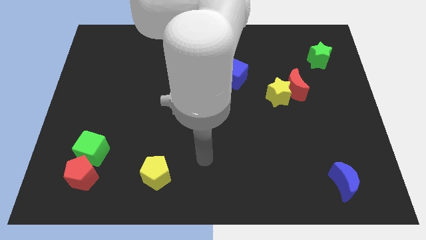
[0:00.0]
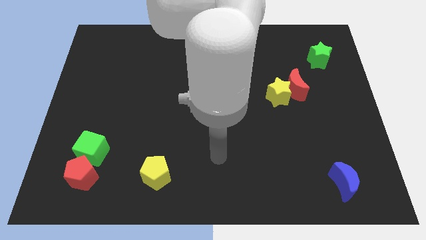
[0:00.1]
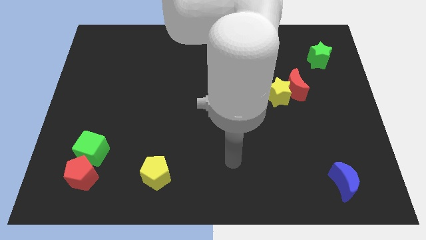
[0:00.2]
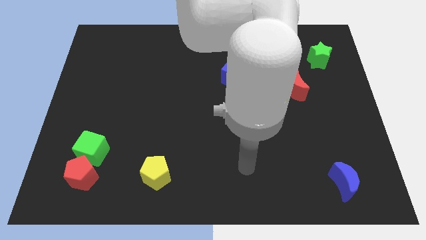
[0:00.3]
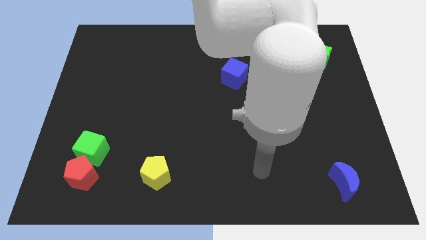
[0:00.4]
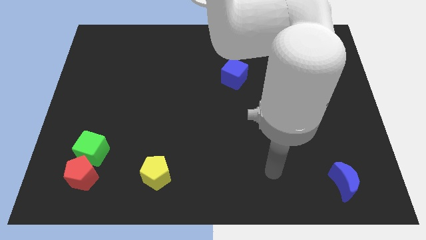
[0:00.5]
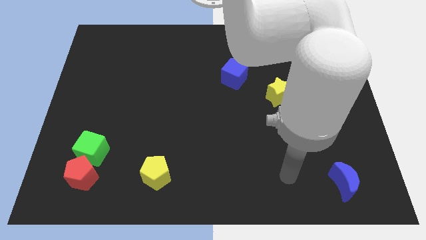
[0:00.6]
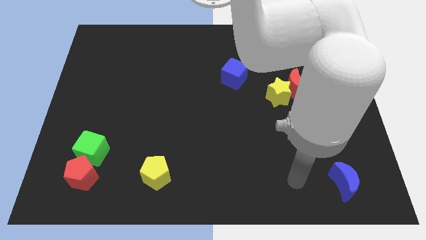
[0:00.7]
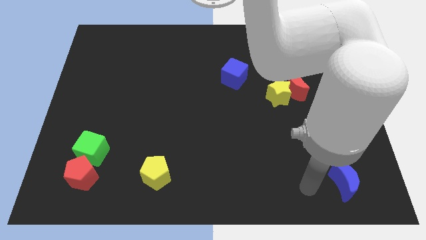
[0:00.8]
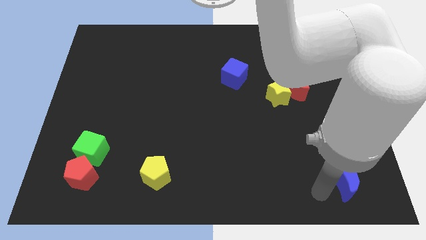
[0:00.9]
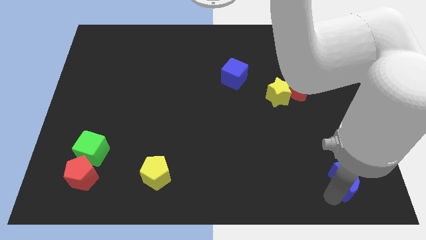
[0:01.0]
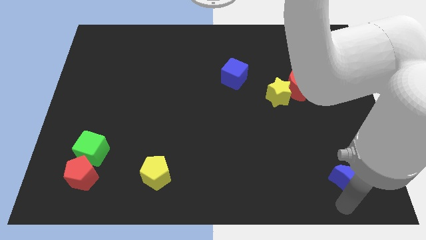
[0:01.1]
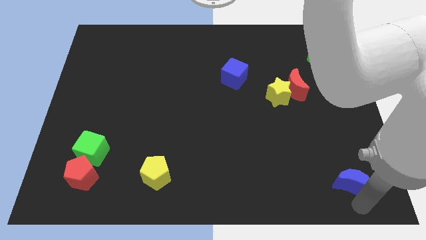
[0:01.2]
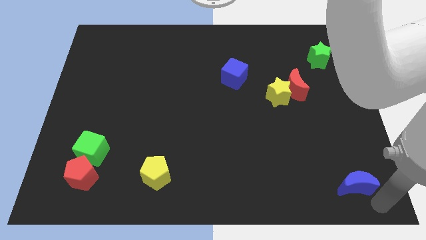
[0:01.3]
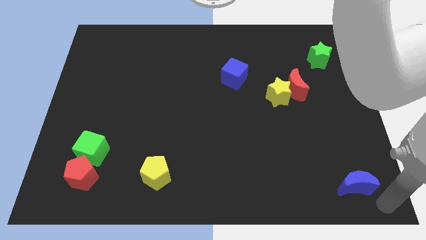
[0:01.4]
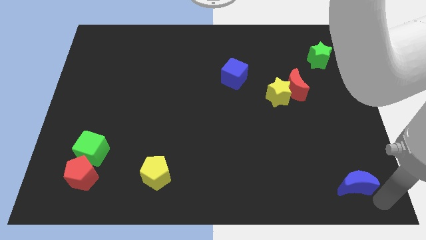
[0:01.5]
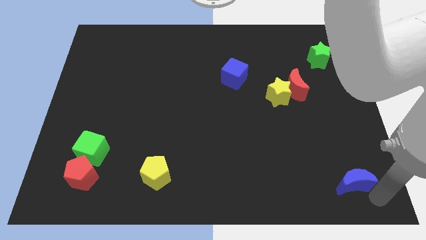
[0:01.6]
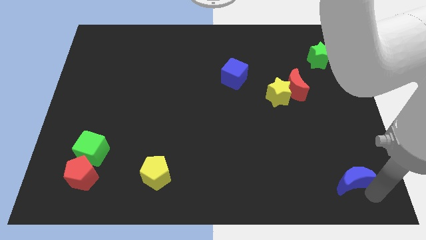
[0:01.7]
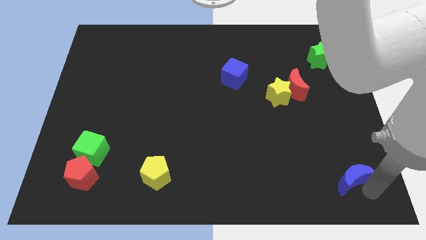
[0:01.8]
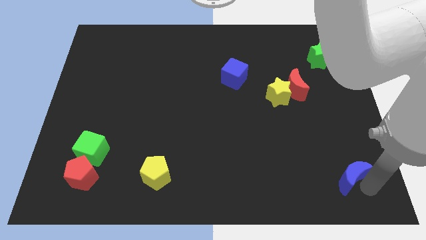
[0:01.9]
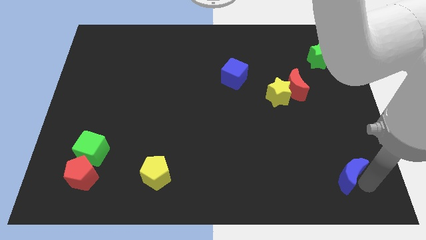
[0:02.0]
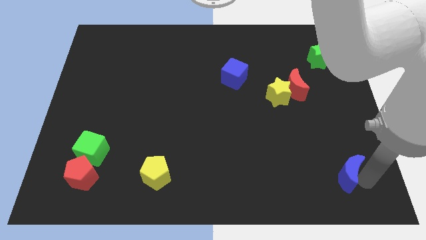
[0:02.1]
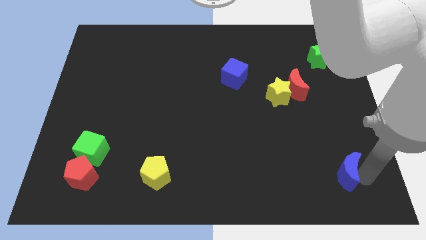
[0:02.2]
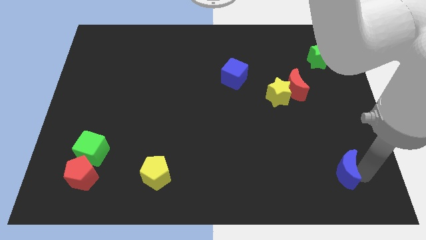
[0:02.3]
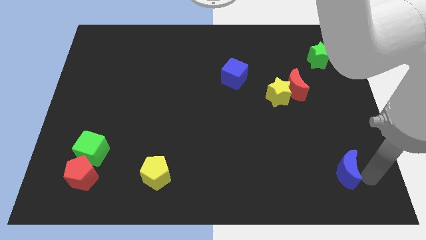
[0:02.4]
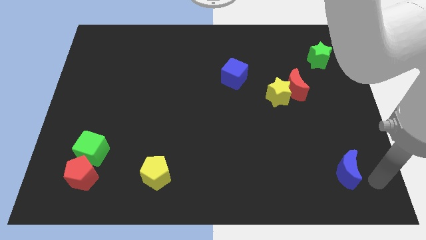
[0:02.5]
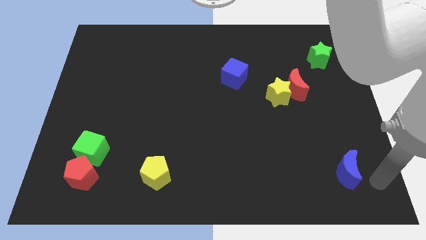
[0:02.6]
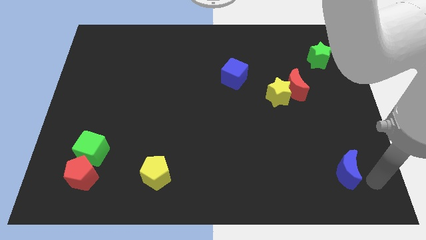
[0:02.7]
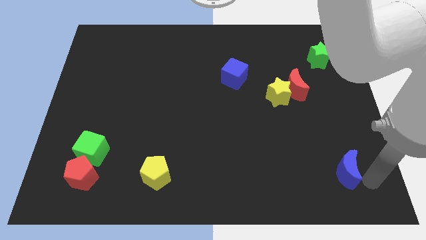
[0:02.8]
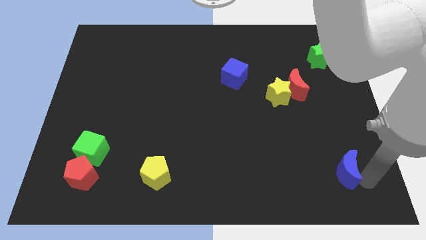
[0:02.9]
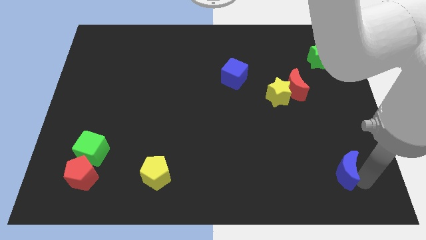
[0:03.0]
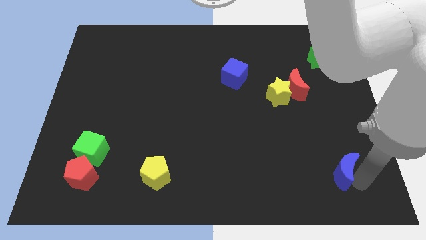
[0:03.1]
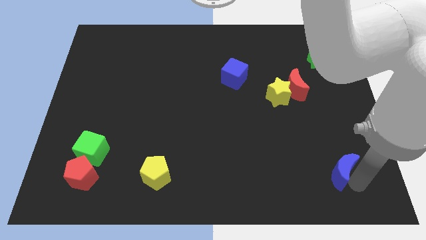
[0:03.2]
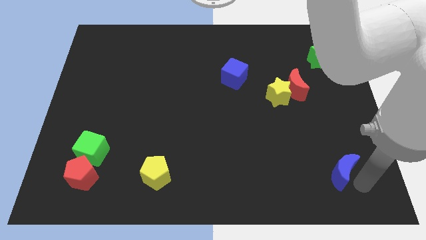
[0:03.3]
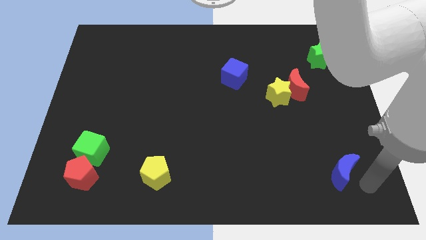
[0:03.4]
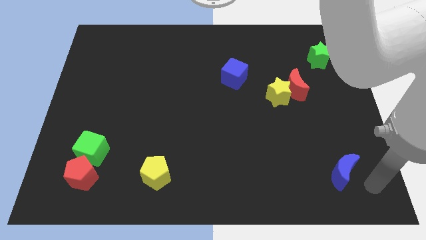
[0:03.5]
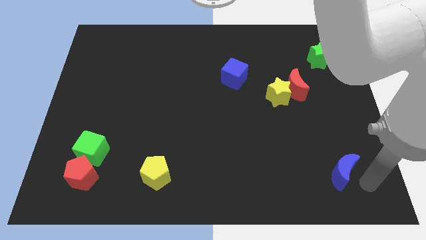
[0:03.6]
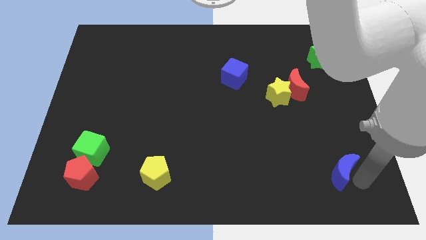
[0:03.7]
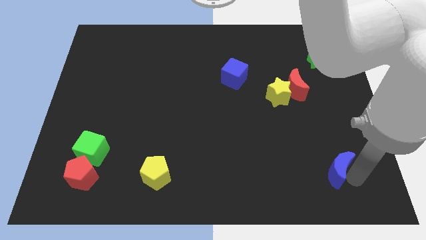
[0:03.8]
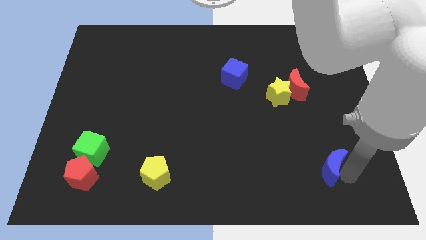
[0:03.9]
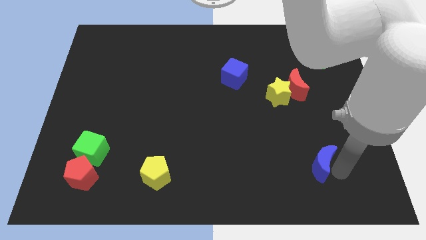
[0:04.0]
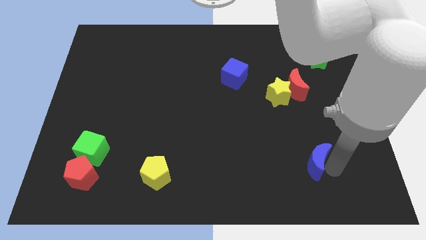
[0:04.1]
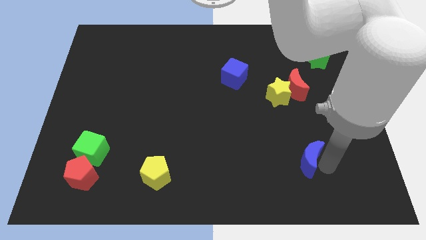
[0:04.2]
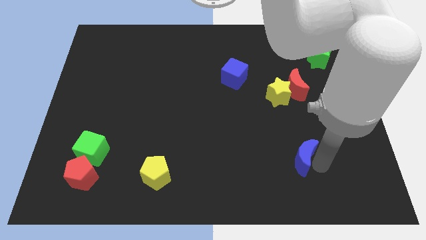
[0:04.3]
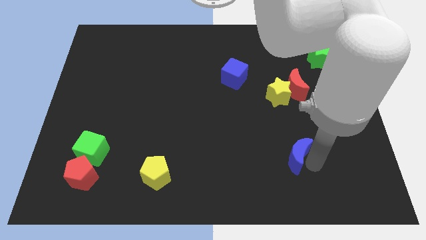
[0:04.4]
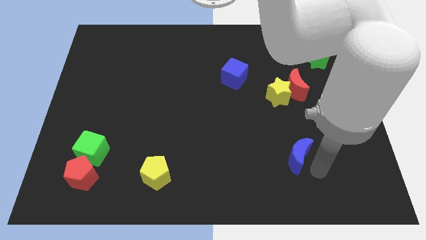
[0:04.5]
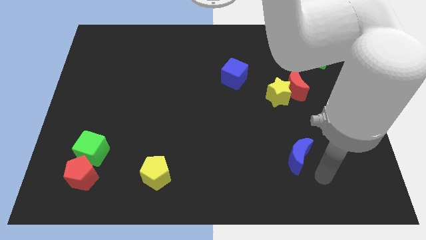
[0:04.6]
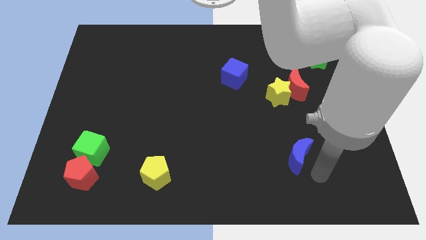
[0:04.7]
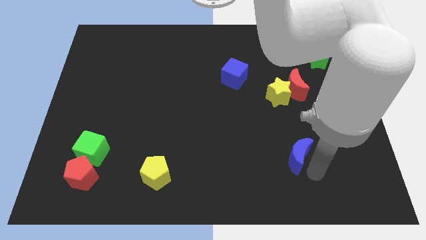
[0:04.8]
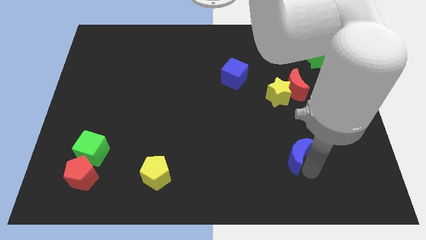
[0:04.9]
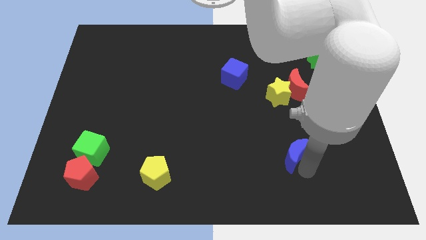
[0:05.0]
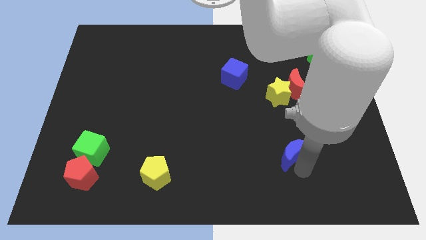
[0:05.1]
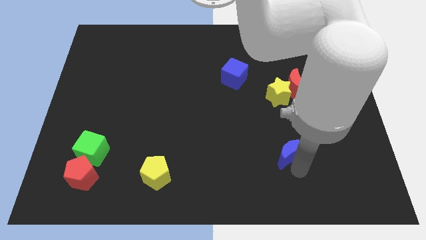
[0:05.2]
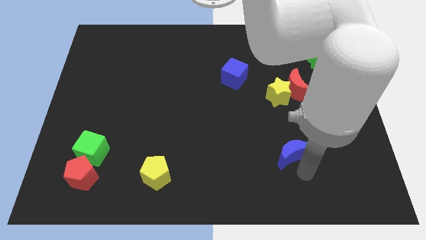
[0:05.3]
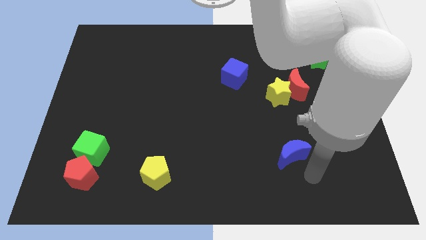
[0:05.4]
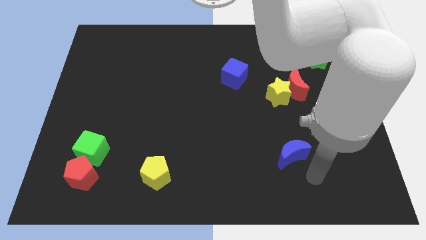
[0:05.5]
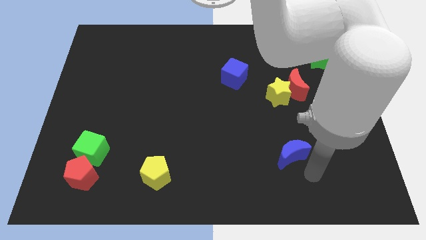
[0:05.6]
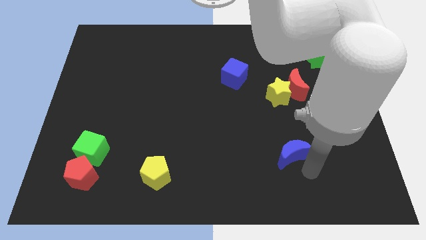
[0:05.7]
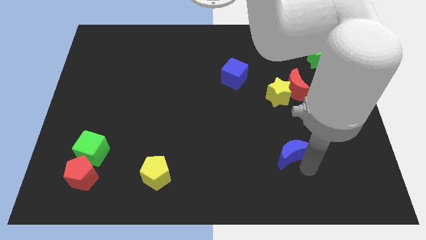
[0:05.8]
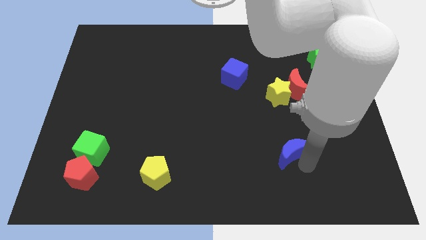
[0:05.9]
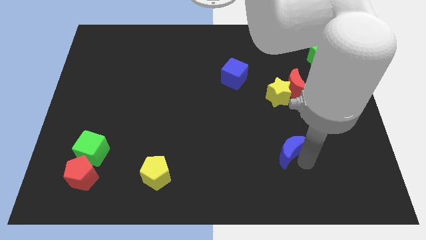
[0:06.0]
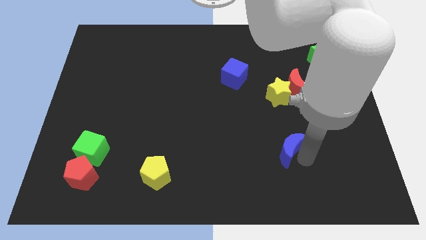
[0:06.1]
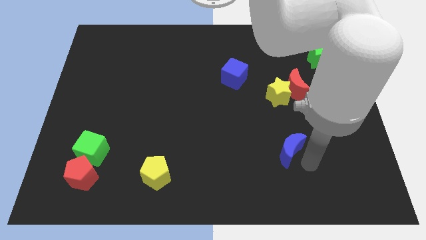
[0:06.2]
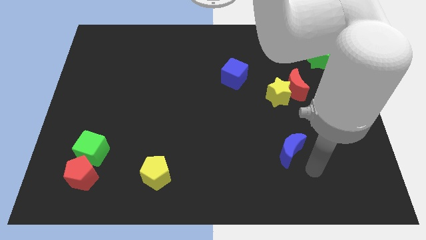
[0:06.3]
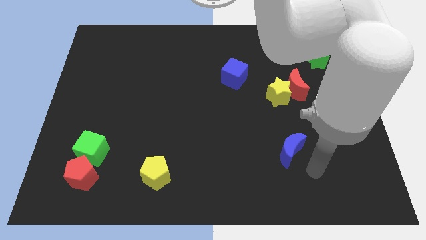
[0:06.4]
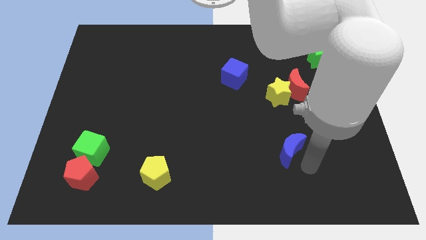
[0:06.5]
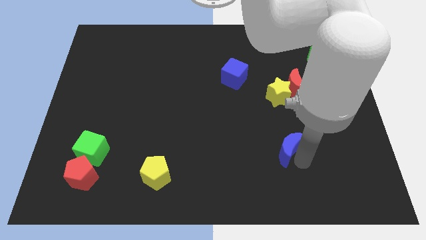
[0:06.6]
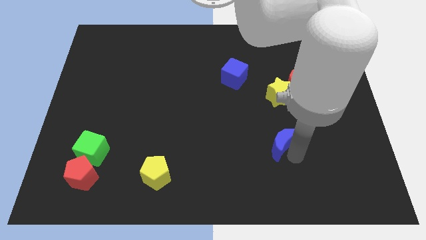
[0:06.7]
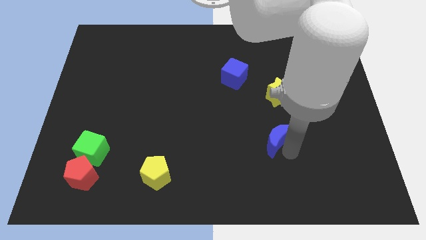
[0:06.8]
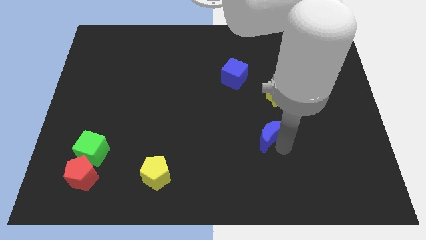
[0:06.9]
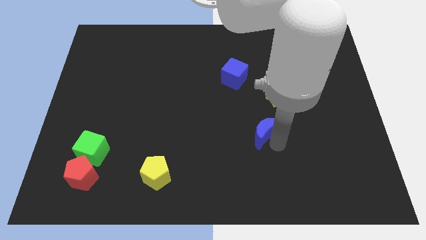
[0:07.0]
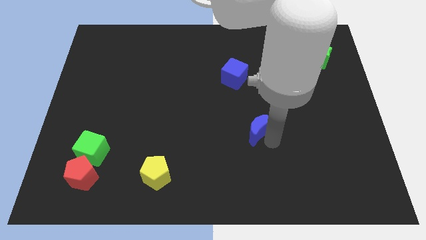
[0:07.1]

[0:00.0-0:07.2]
slide the blue moon up and to the left

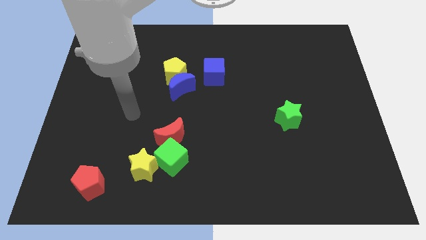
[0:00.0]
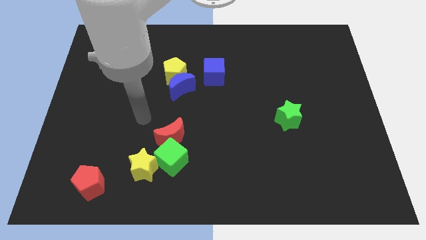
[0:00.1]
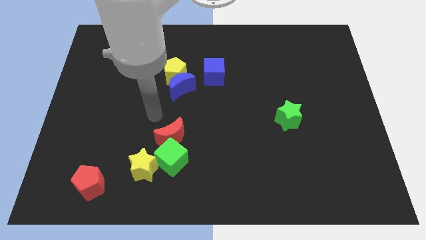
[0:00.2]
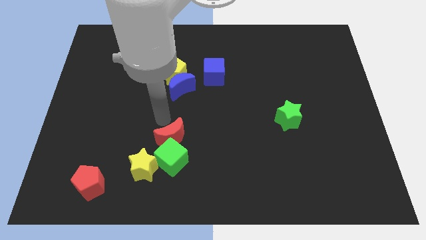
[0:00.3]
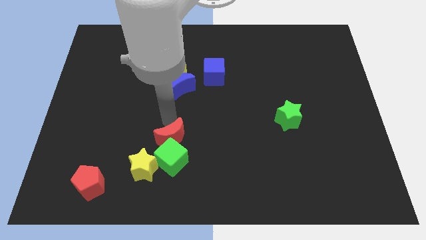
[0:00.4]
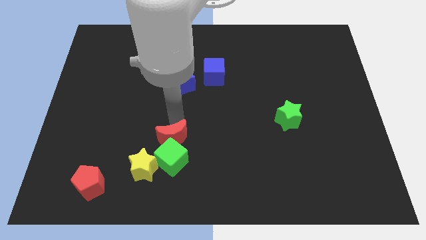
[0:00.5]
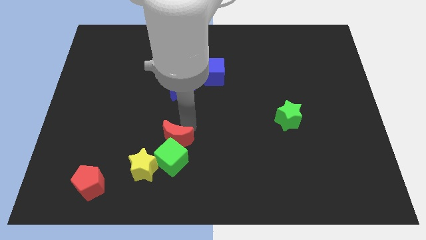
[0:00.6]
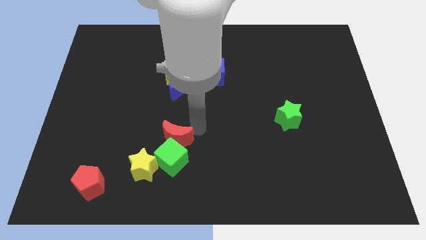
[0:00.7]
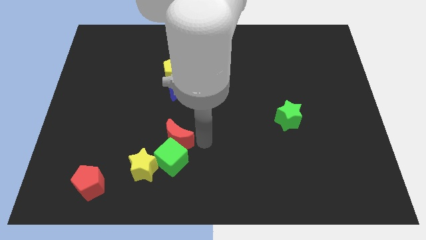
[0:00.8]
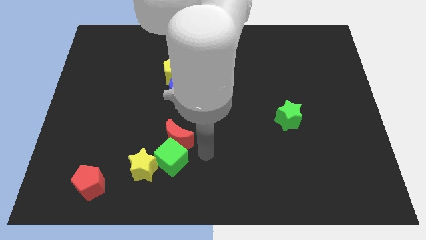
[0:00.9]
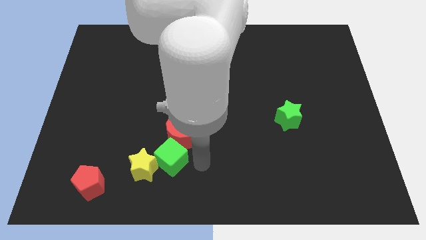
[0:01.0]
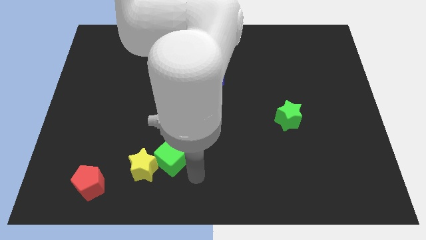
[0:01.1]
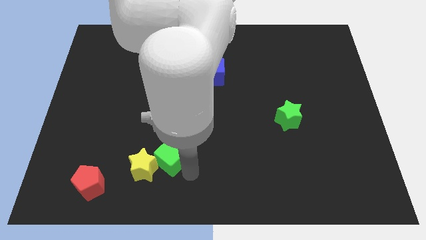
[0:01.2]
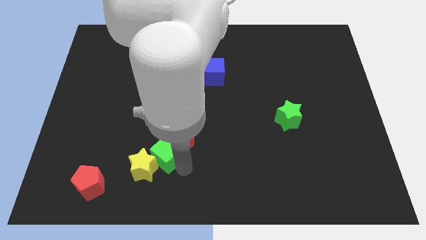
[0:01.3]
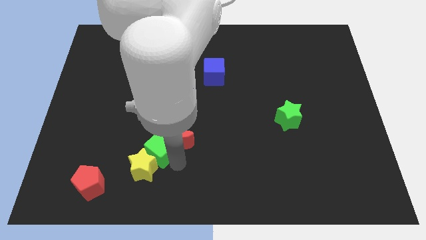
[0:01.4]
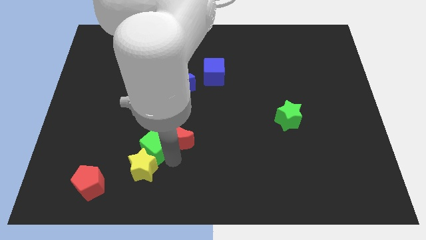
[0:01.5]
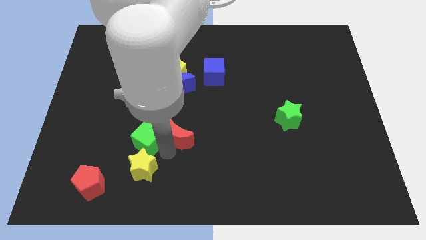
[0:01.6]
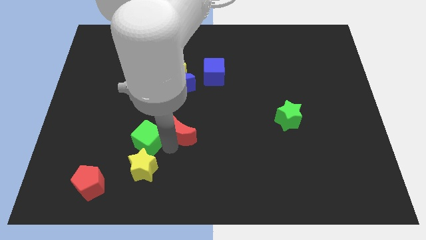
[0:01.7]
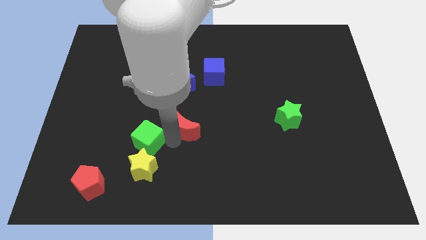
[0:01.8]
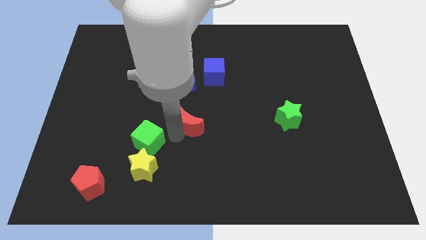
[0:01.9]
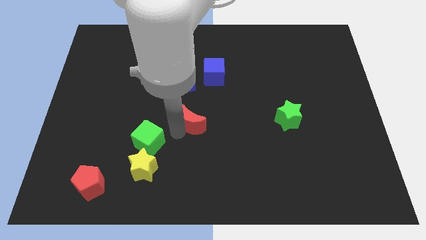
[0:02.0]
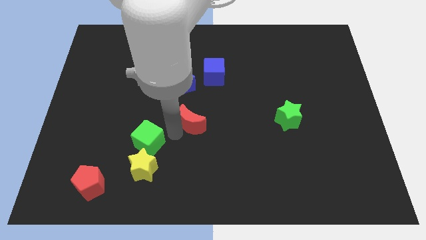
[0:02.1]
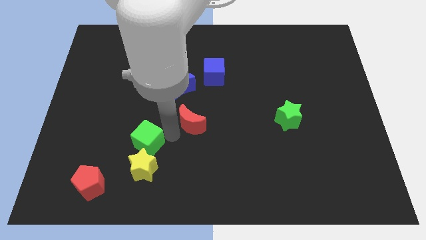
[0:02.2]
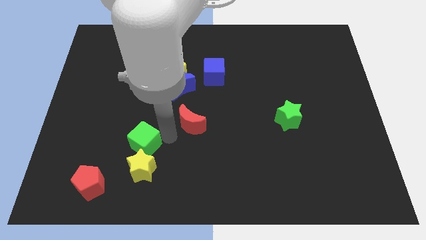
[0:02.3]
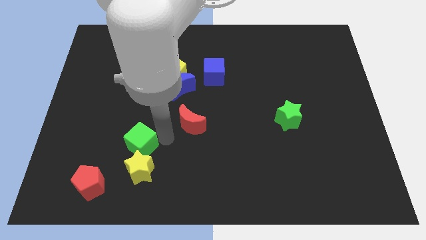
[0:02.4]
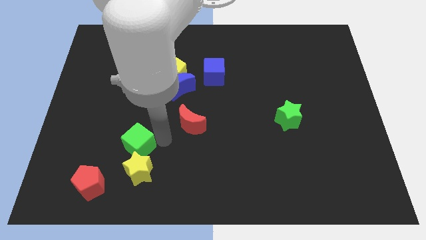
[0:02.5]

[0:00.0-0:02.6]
push the green cube slightly to the left
